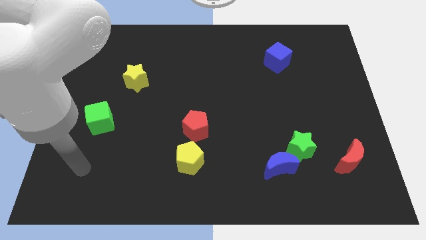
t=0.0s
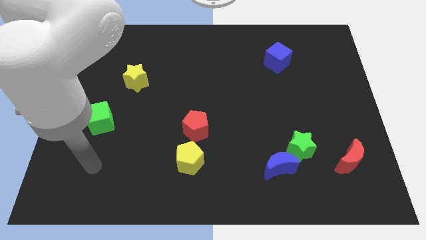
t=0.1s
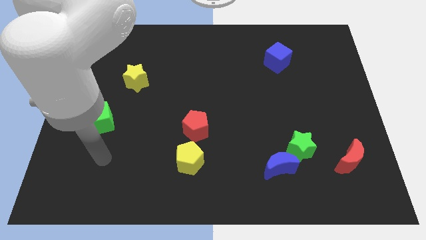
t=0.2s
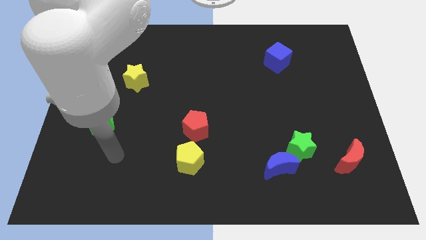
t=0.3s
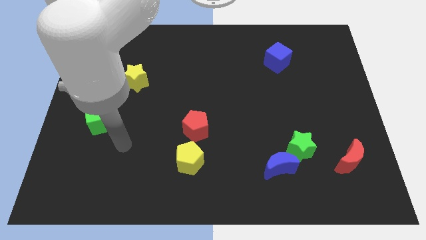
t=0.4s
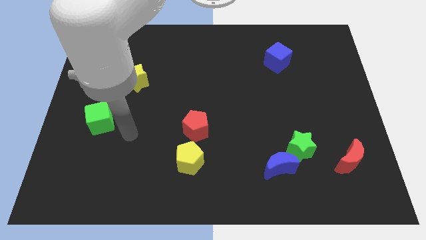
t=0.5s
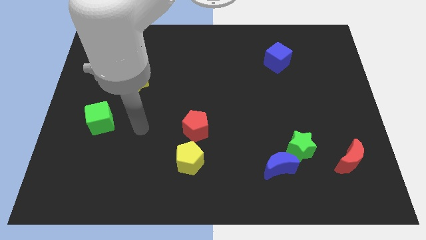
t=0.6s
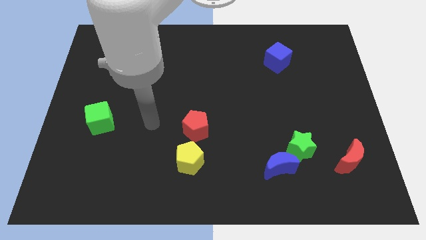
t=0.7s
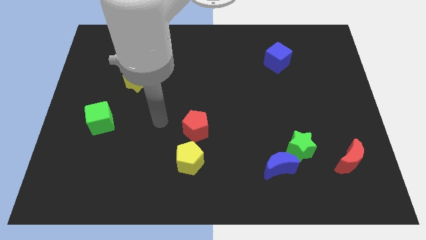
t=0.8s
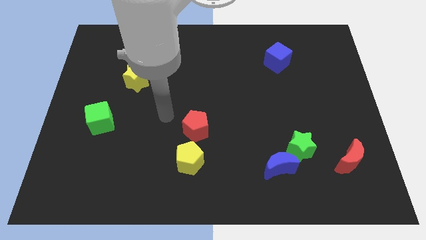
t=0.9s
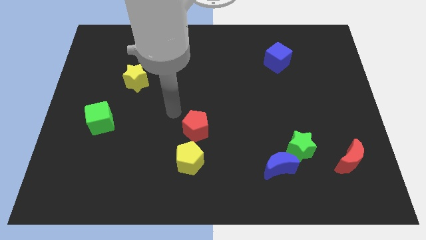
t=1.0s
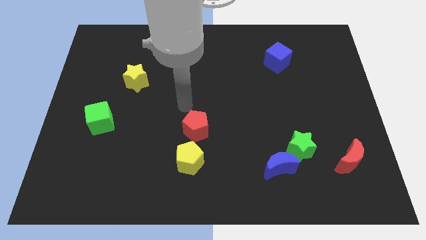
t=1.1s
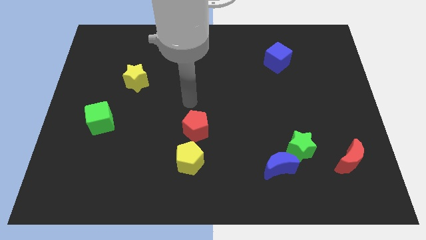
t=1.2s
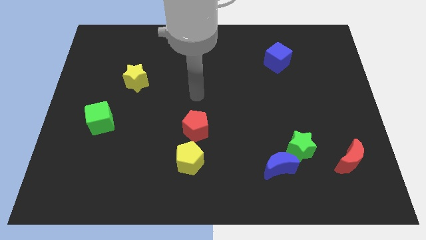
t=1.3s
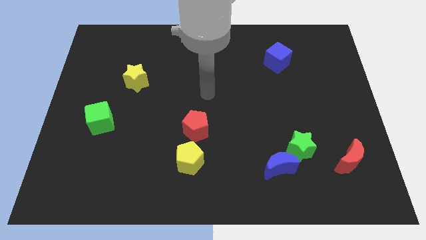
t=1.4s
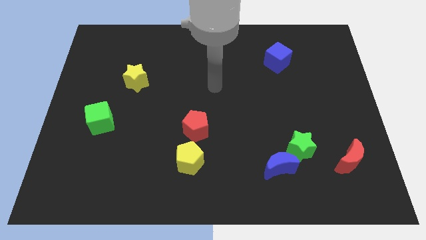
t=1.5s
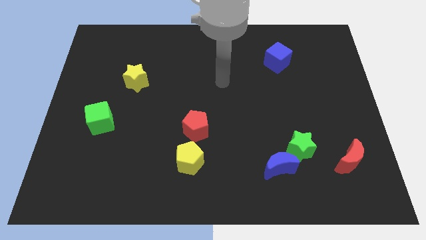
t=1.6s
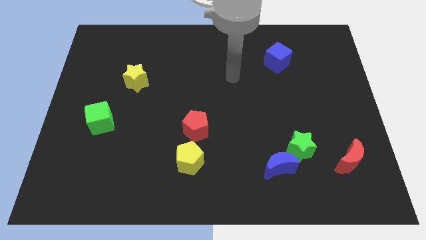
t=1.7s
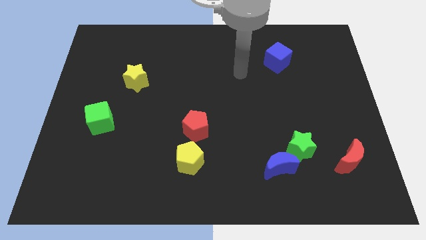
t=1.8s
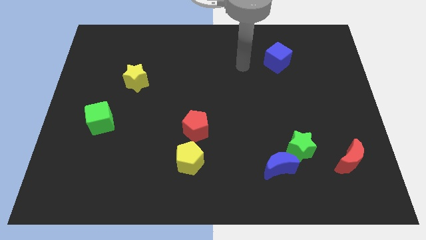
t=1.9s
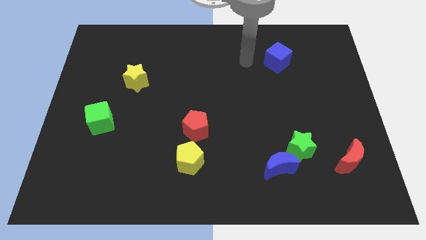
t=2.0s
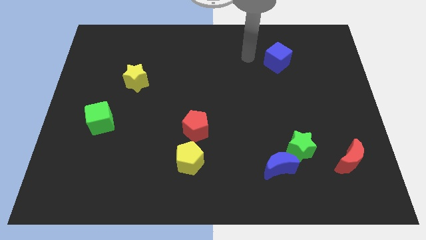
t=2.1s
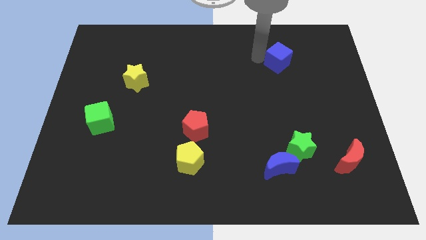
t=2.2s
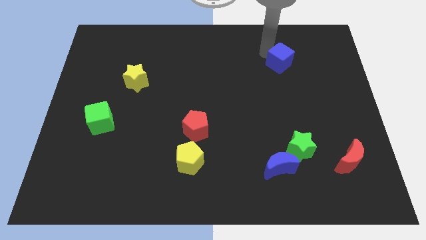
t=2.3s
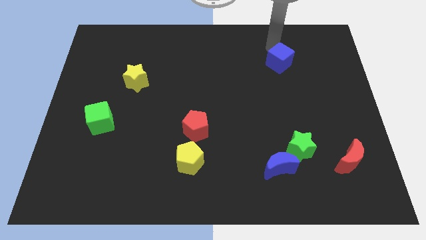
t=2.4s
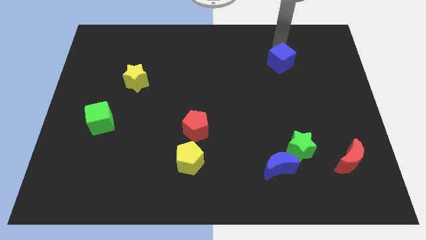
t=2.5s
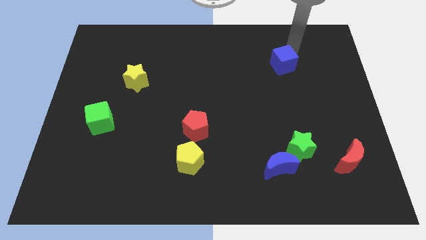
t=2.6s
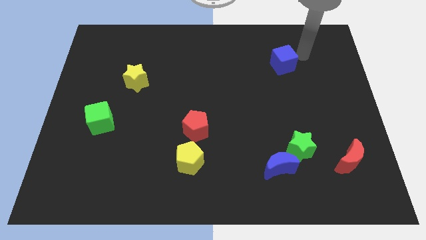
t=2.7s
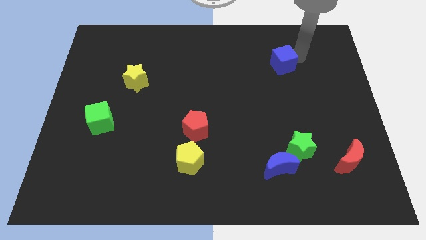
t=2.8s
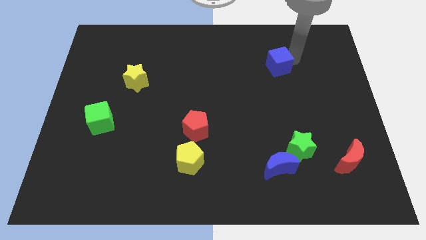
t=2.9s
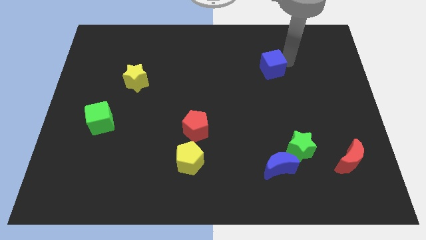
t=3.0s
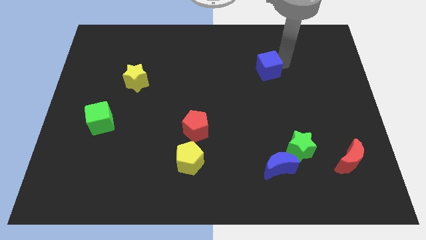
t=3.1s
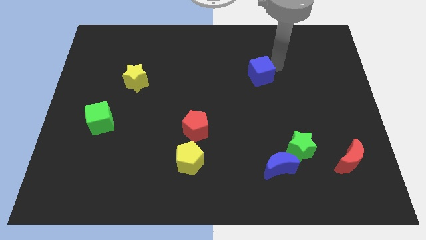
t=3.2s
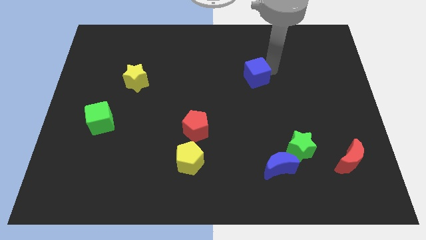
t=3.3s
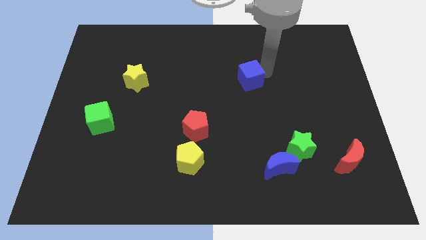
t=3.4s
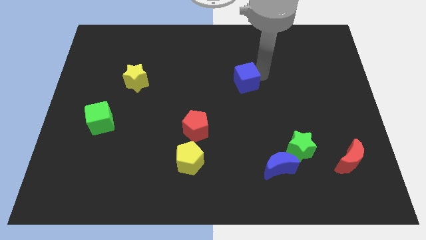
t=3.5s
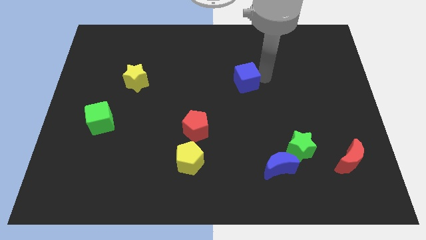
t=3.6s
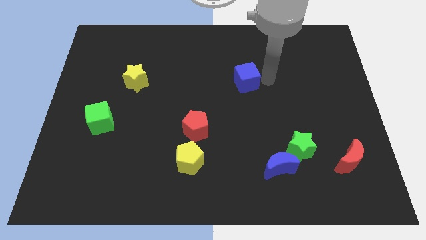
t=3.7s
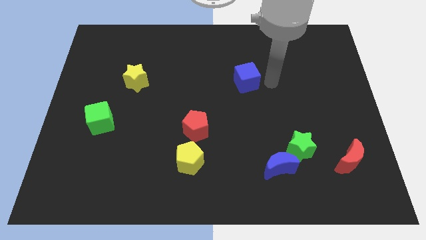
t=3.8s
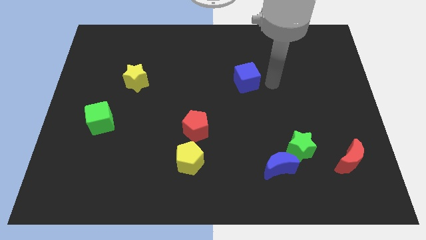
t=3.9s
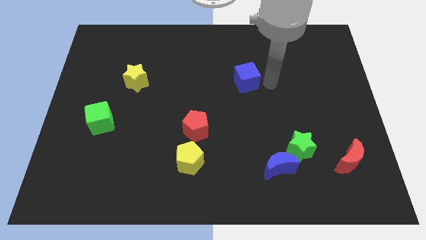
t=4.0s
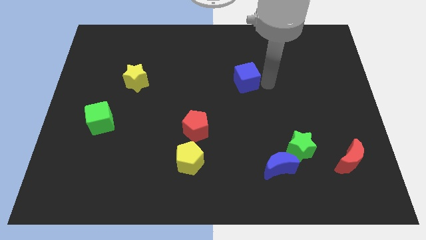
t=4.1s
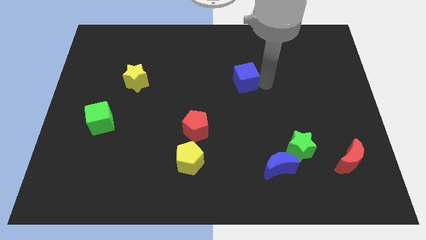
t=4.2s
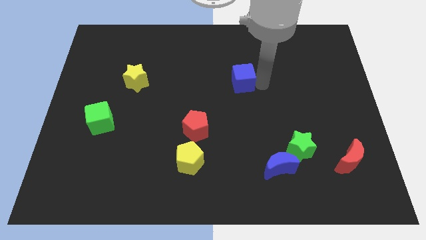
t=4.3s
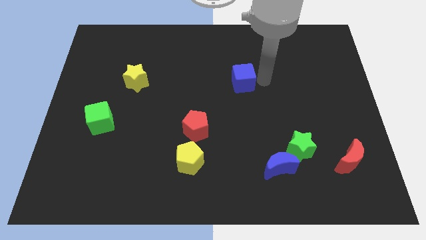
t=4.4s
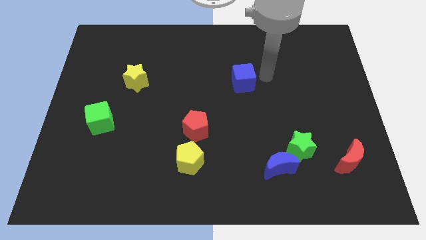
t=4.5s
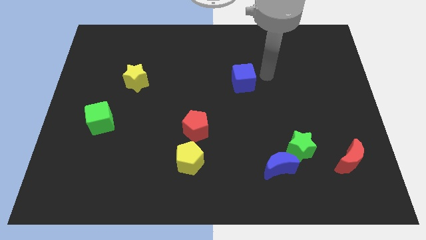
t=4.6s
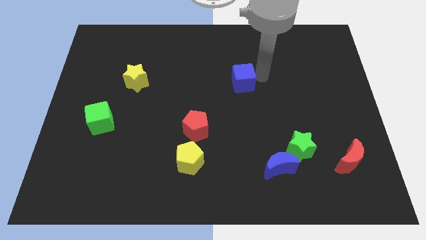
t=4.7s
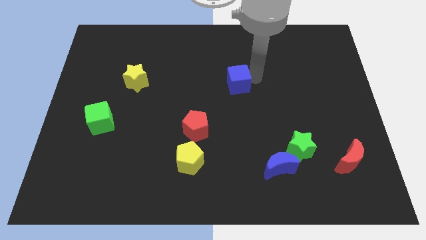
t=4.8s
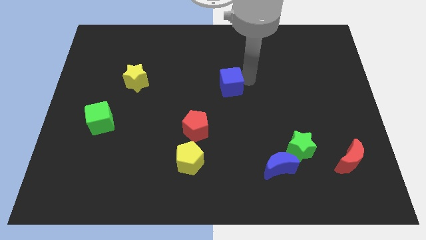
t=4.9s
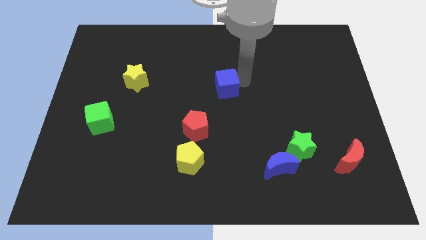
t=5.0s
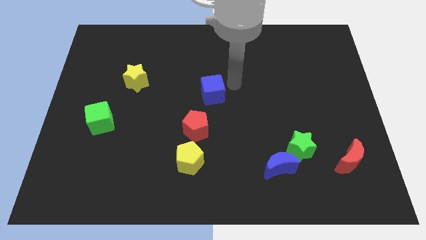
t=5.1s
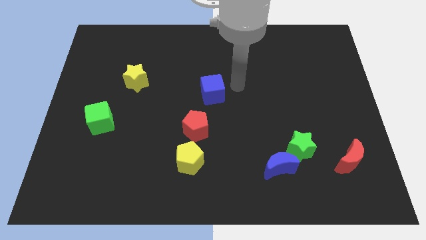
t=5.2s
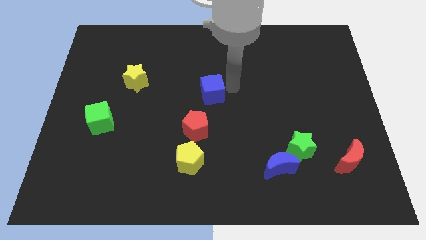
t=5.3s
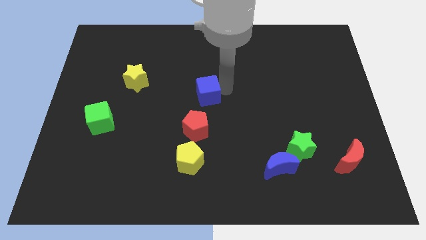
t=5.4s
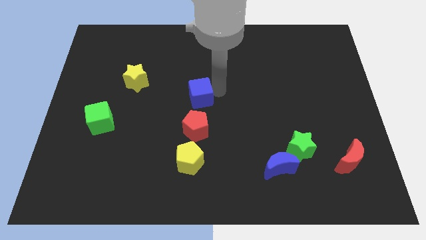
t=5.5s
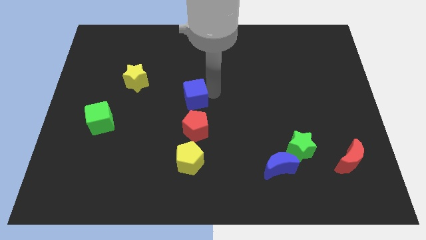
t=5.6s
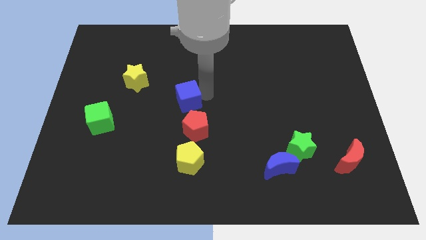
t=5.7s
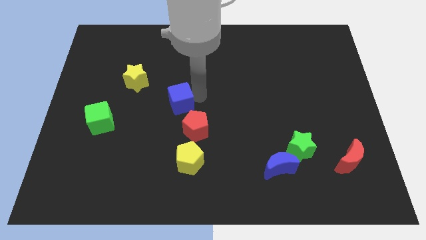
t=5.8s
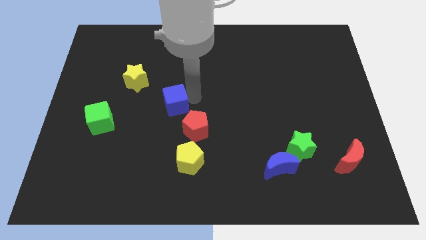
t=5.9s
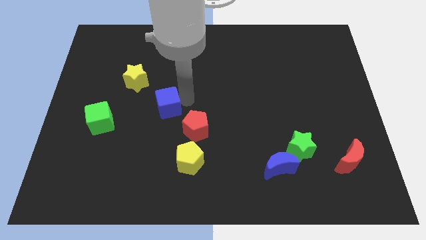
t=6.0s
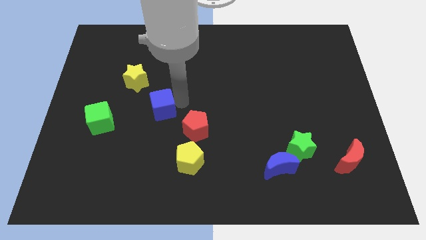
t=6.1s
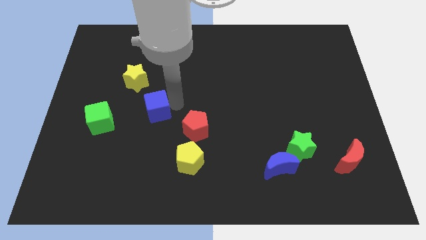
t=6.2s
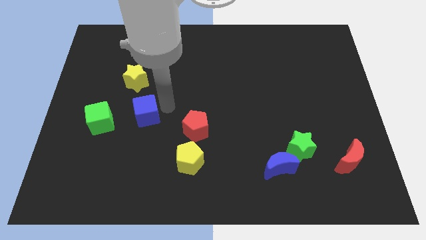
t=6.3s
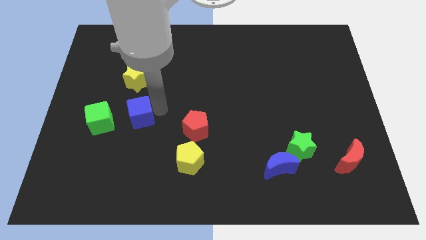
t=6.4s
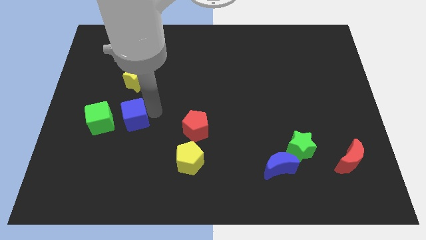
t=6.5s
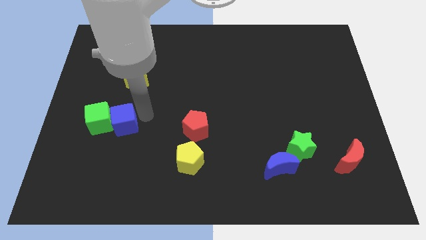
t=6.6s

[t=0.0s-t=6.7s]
put the blue cube next to the green cube
